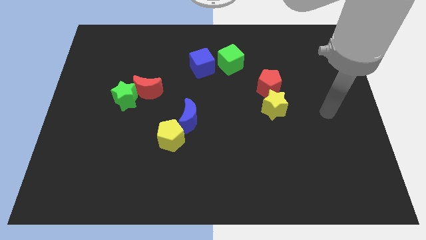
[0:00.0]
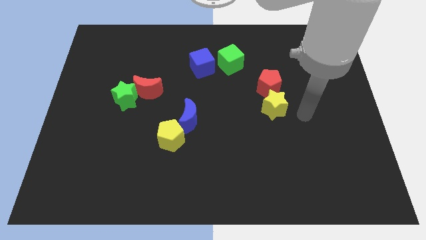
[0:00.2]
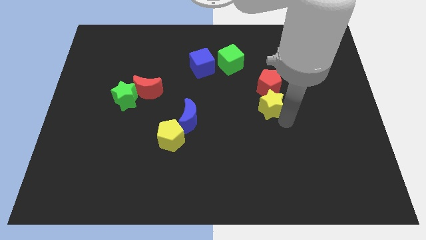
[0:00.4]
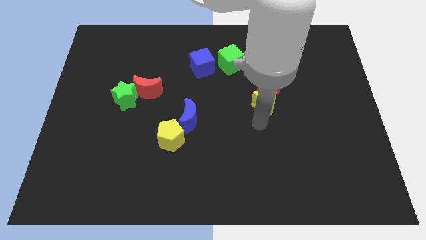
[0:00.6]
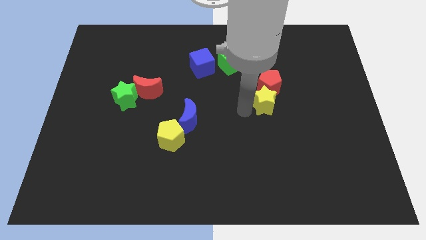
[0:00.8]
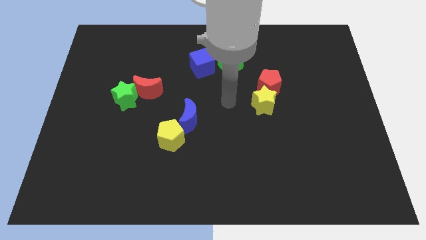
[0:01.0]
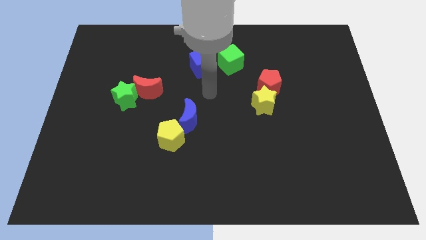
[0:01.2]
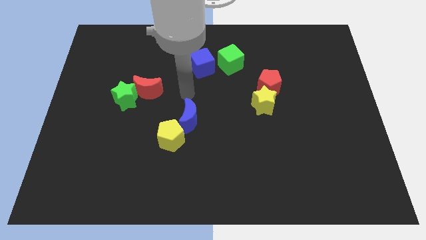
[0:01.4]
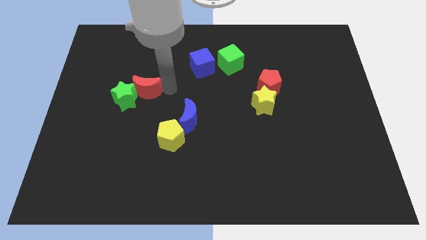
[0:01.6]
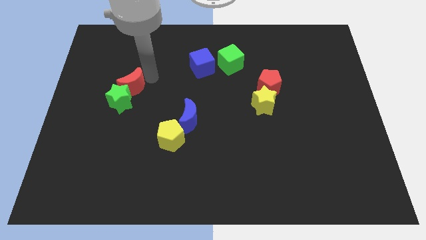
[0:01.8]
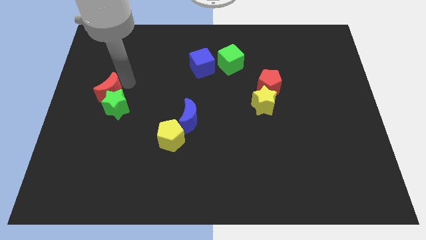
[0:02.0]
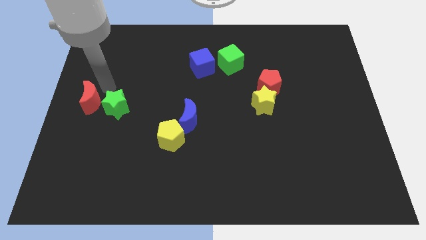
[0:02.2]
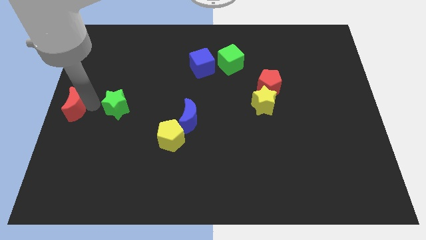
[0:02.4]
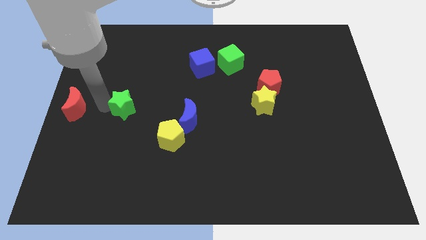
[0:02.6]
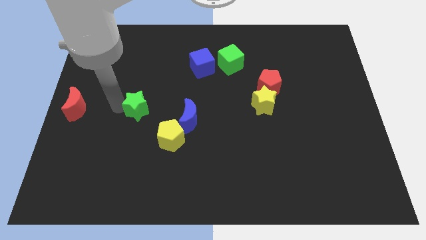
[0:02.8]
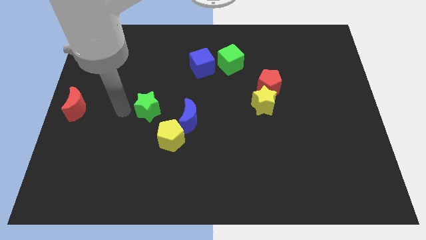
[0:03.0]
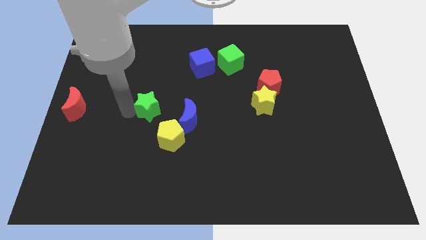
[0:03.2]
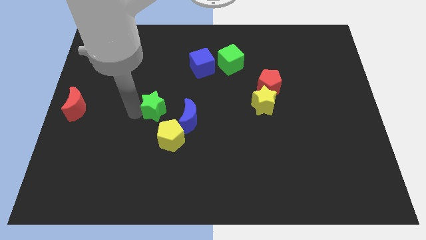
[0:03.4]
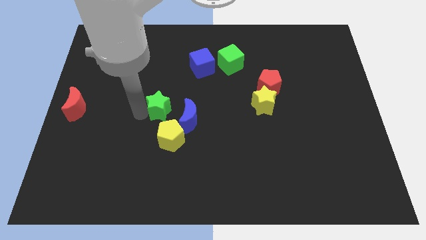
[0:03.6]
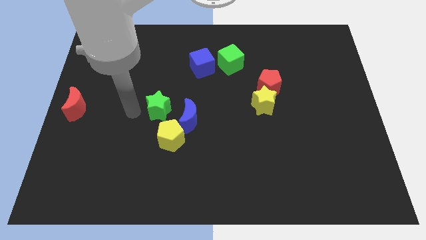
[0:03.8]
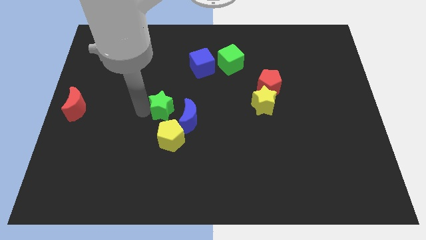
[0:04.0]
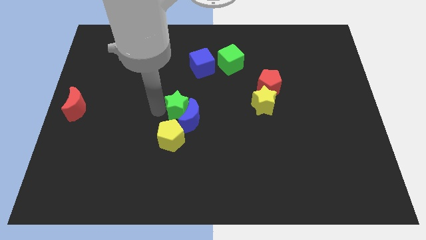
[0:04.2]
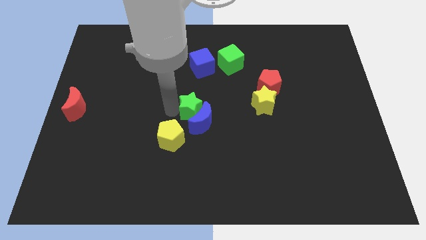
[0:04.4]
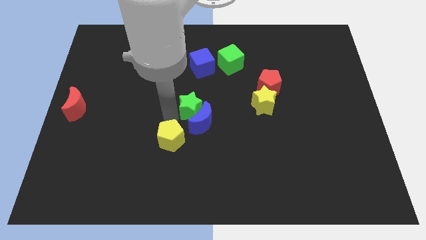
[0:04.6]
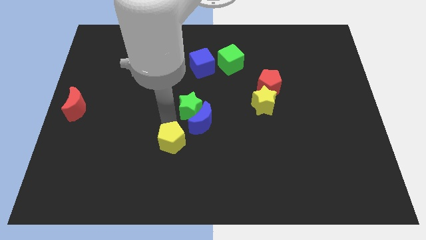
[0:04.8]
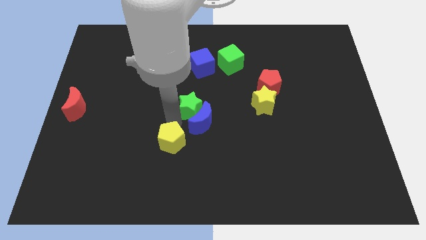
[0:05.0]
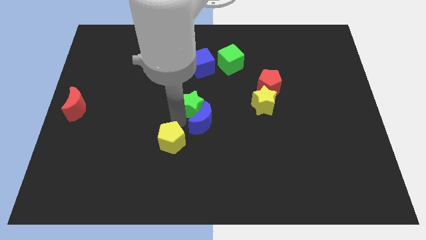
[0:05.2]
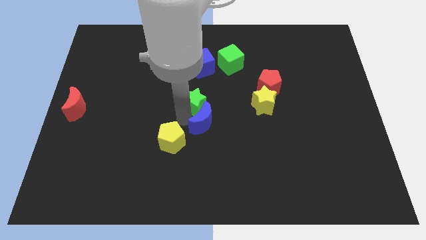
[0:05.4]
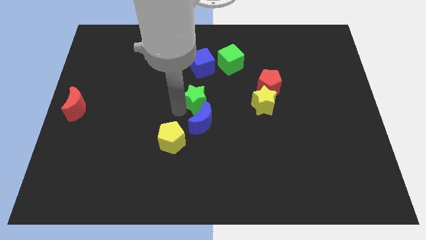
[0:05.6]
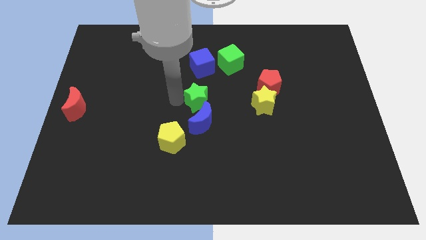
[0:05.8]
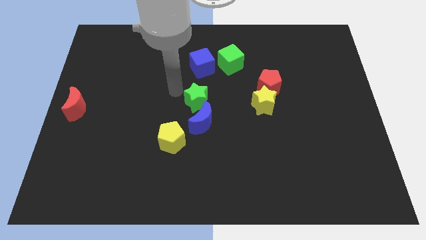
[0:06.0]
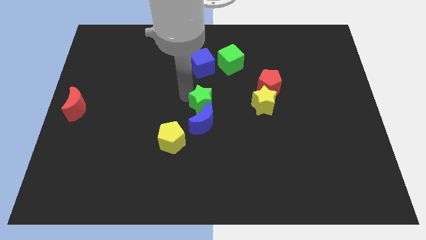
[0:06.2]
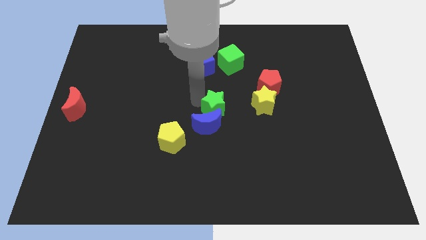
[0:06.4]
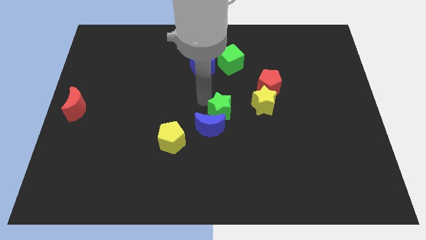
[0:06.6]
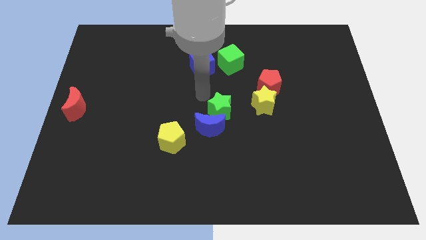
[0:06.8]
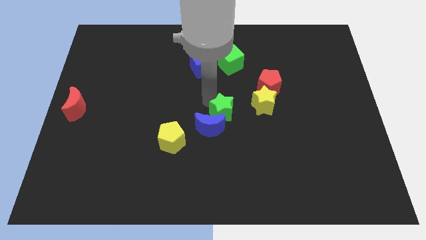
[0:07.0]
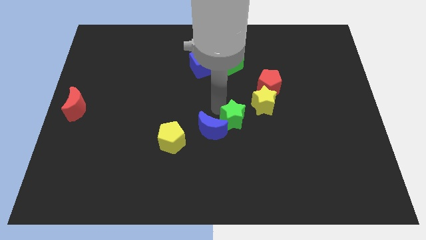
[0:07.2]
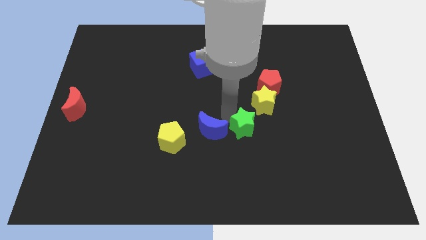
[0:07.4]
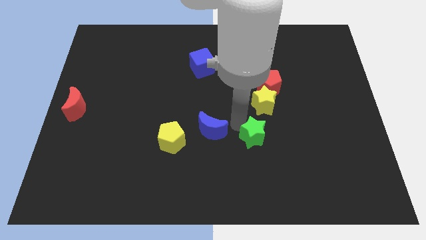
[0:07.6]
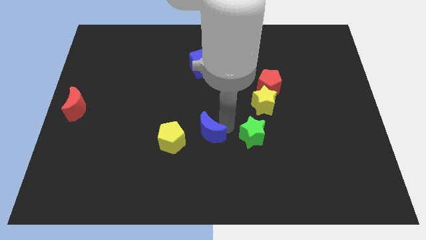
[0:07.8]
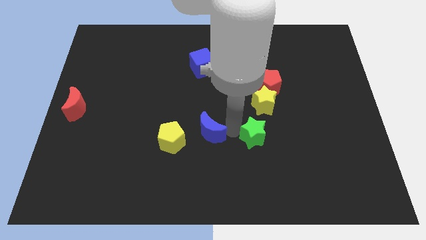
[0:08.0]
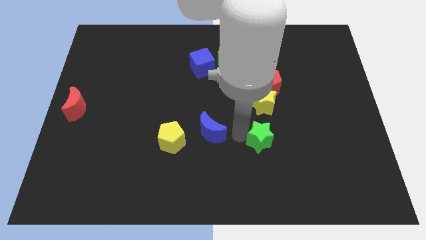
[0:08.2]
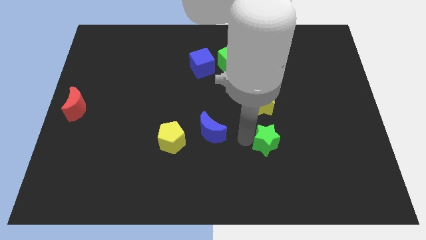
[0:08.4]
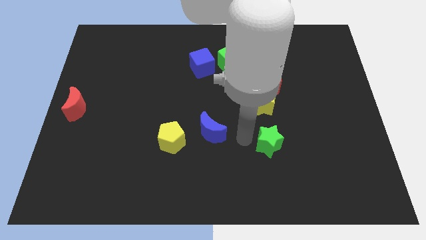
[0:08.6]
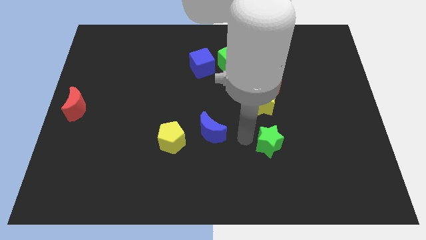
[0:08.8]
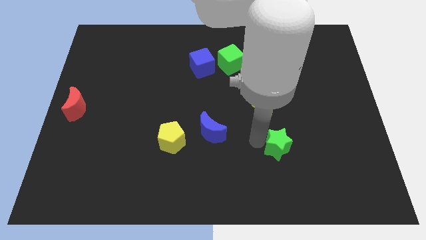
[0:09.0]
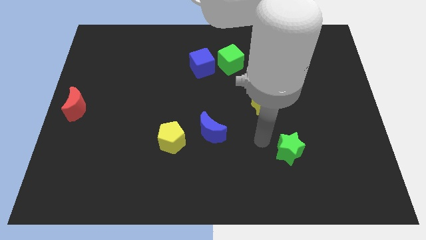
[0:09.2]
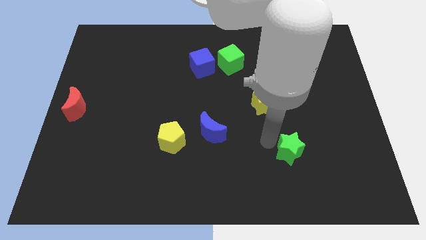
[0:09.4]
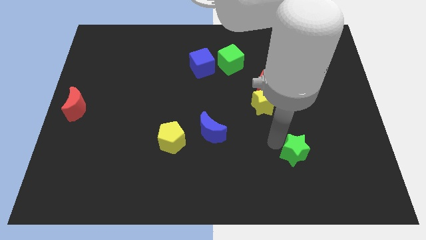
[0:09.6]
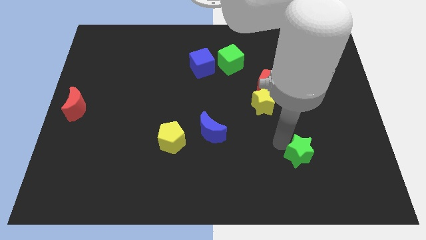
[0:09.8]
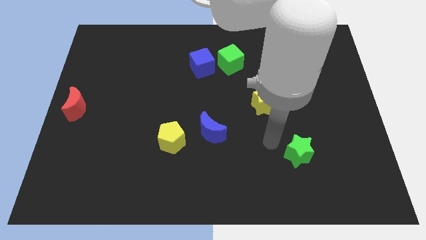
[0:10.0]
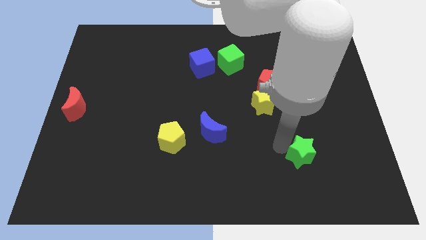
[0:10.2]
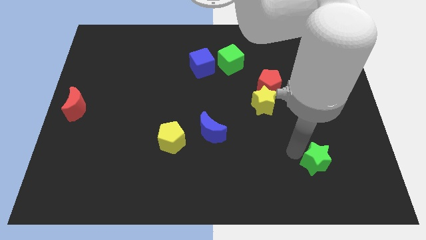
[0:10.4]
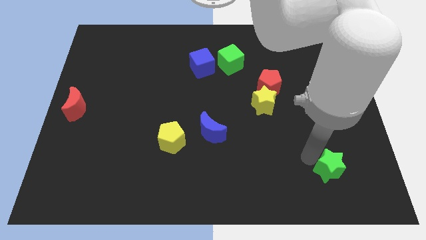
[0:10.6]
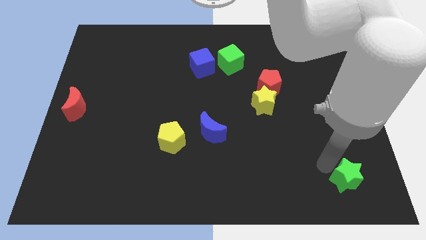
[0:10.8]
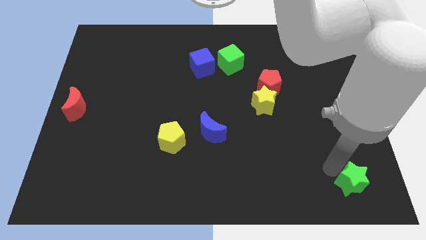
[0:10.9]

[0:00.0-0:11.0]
push the green star to the bottom right

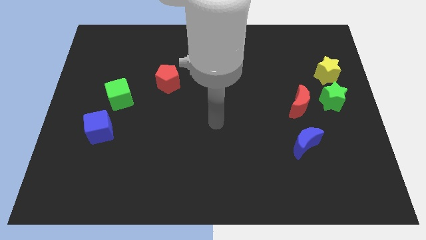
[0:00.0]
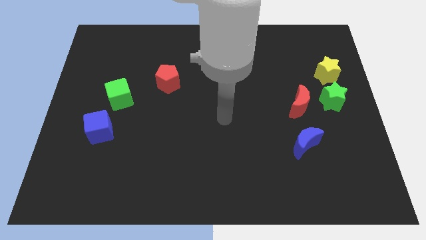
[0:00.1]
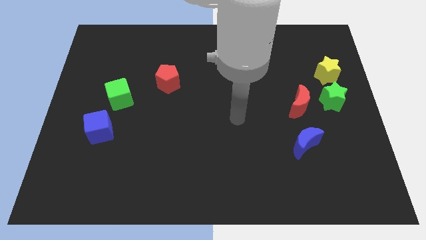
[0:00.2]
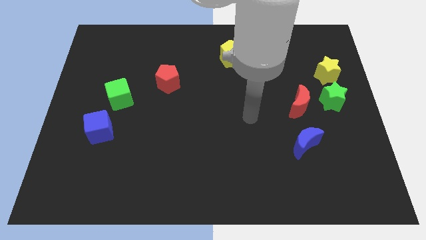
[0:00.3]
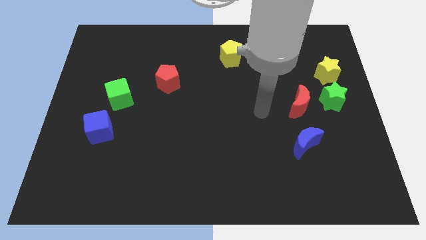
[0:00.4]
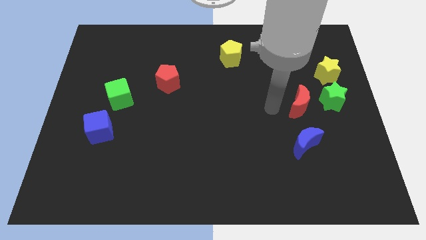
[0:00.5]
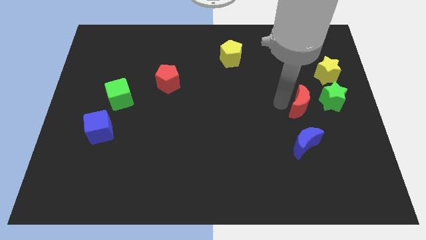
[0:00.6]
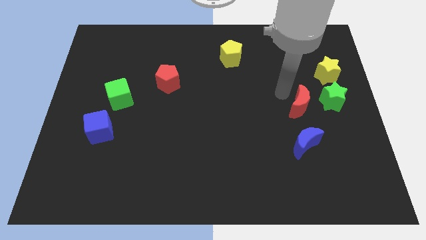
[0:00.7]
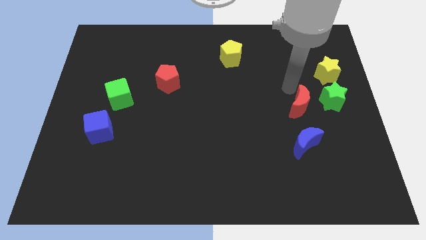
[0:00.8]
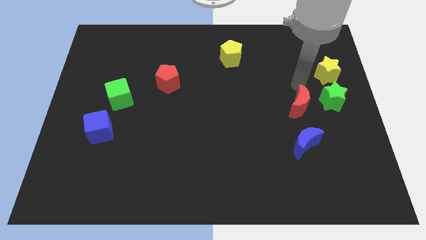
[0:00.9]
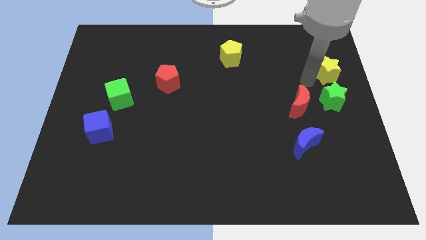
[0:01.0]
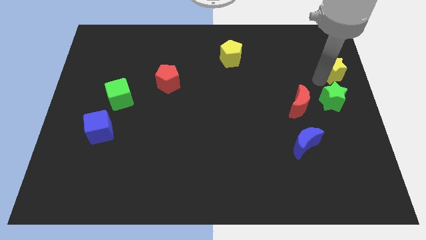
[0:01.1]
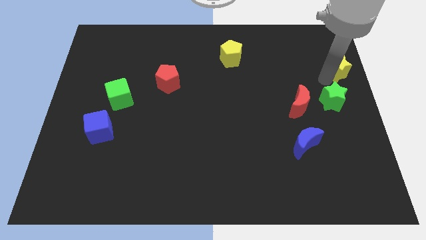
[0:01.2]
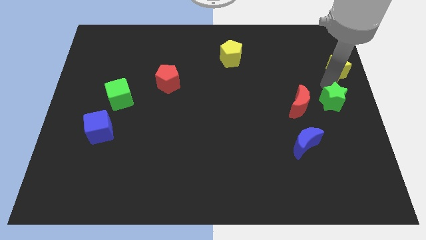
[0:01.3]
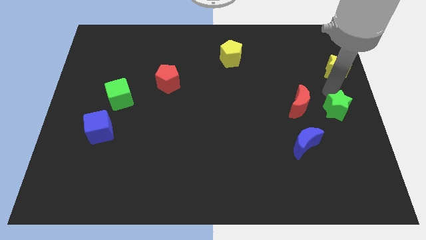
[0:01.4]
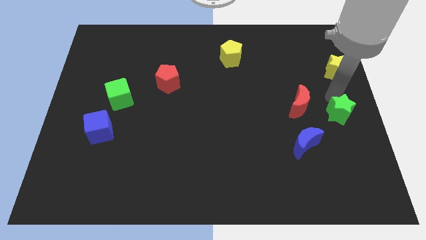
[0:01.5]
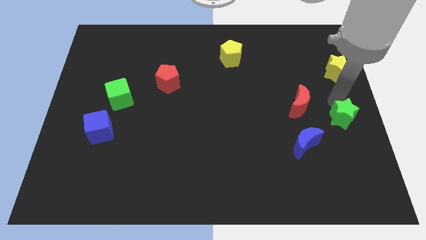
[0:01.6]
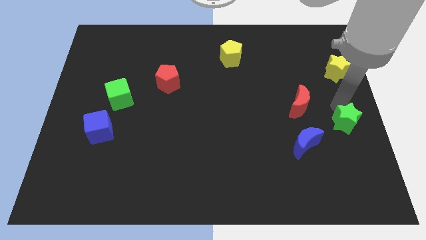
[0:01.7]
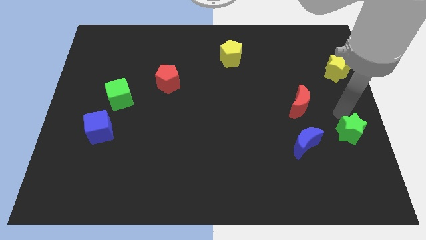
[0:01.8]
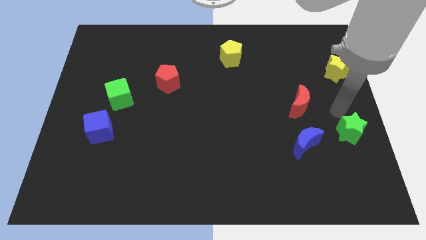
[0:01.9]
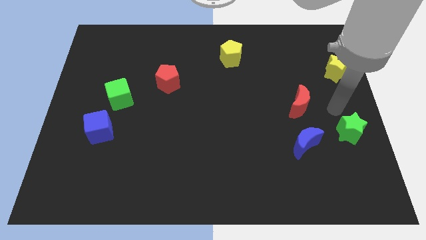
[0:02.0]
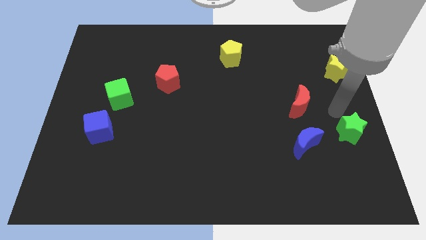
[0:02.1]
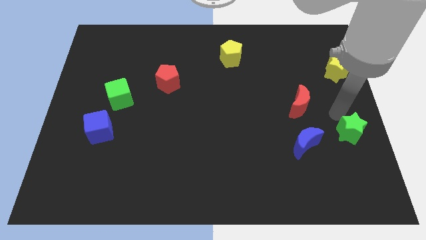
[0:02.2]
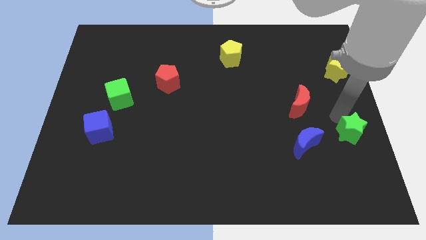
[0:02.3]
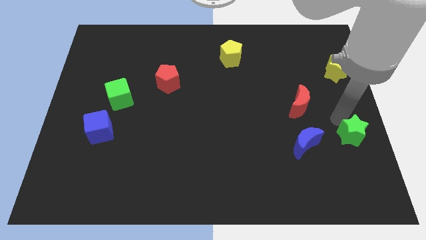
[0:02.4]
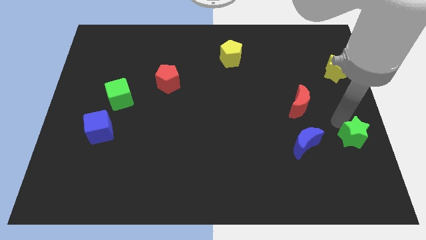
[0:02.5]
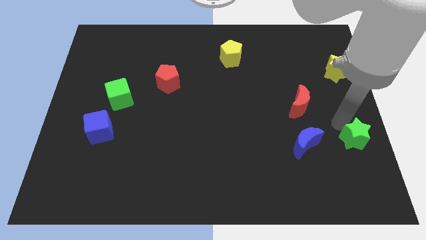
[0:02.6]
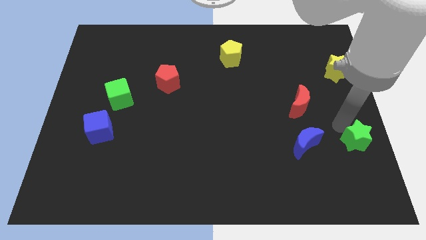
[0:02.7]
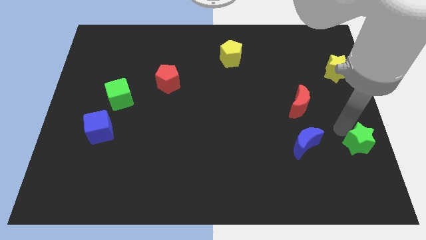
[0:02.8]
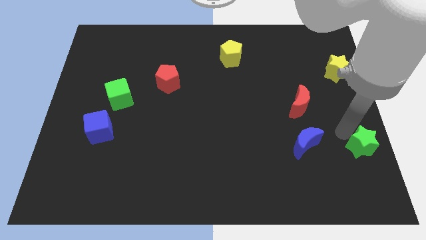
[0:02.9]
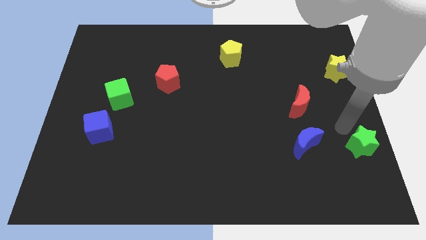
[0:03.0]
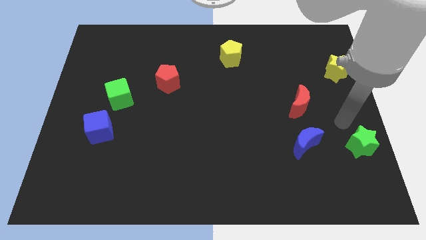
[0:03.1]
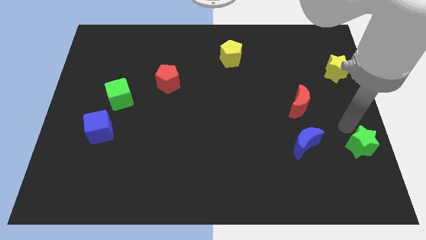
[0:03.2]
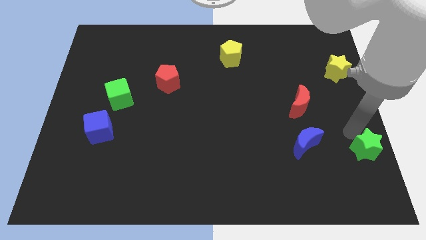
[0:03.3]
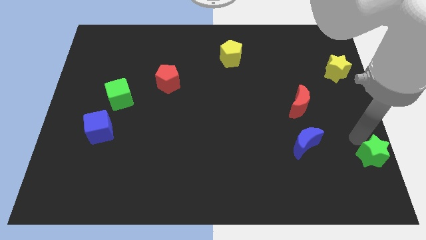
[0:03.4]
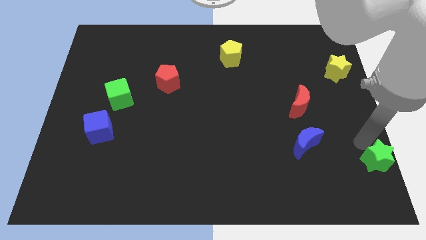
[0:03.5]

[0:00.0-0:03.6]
push the green star to the bottom right corner
